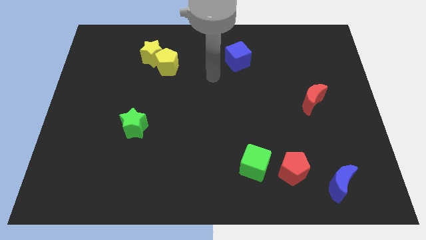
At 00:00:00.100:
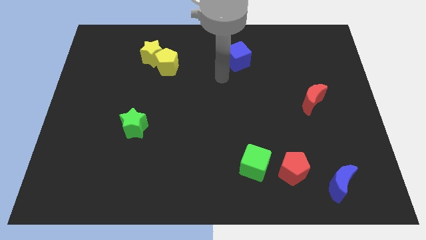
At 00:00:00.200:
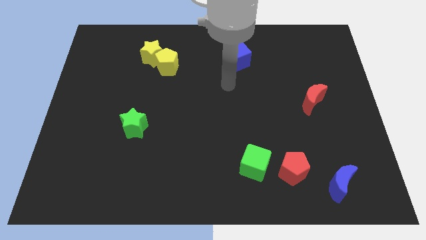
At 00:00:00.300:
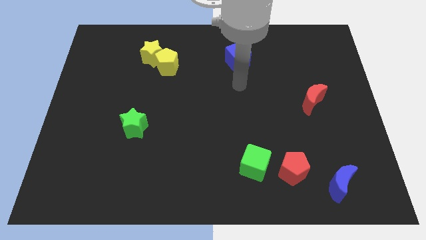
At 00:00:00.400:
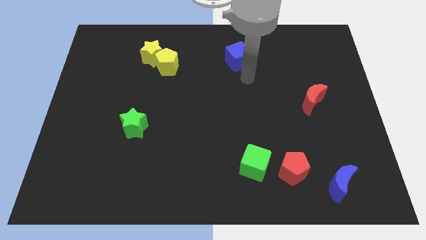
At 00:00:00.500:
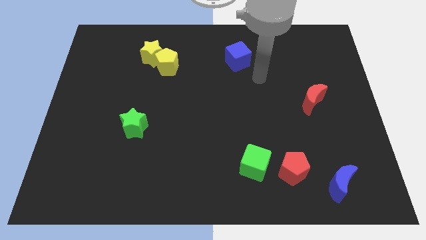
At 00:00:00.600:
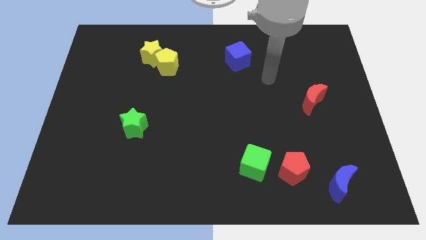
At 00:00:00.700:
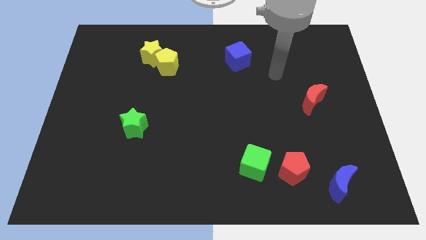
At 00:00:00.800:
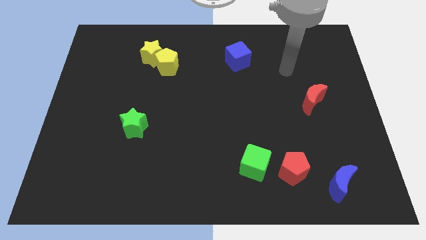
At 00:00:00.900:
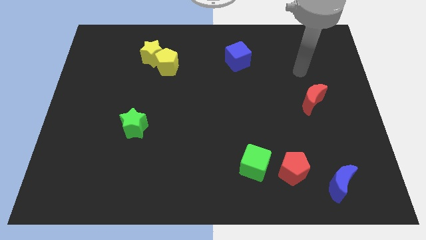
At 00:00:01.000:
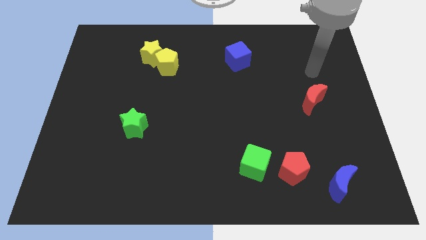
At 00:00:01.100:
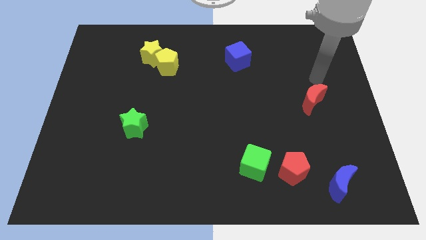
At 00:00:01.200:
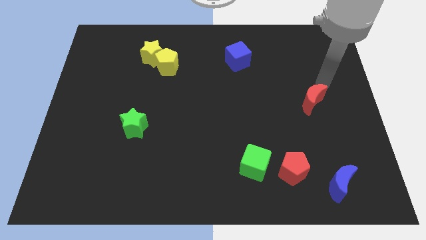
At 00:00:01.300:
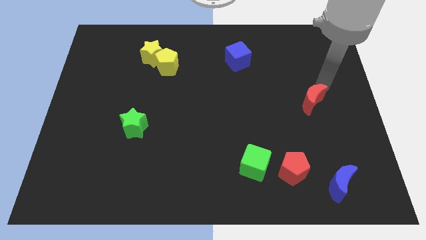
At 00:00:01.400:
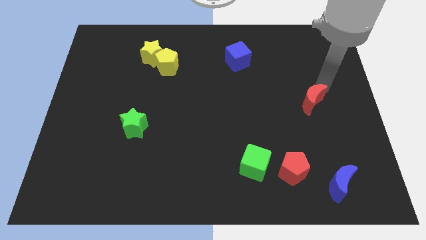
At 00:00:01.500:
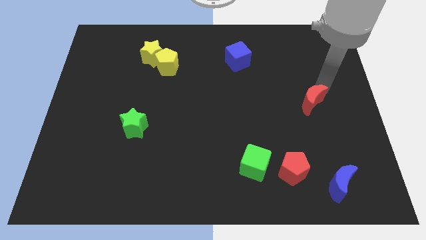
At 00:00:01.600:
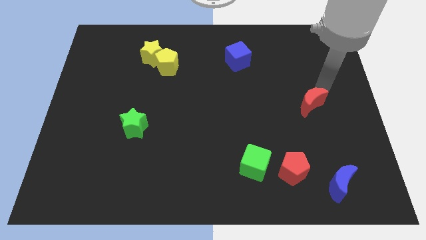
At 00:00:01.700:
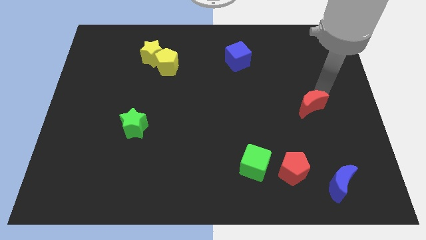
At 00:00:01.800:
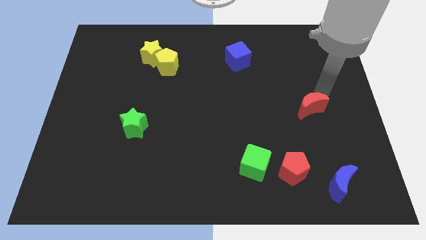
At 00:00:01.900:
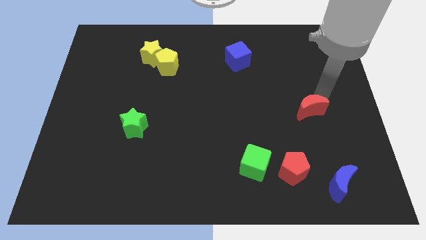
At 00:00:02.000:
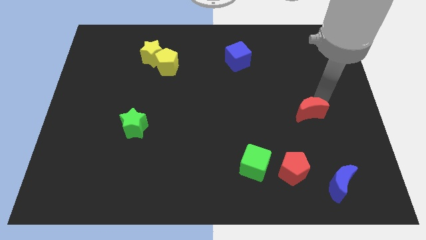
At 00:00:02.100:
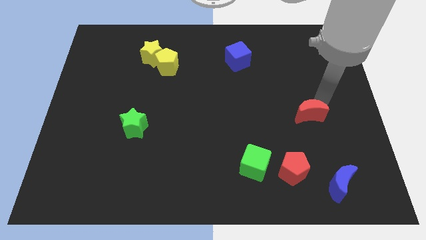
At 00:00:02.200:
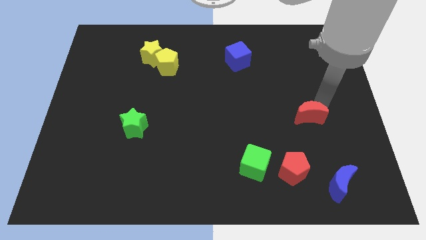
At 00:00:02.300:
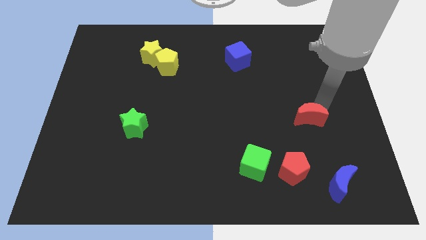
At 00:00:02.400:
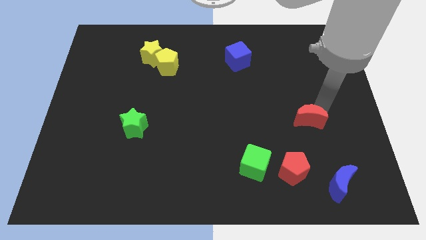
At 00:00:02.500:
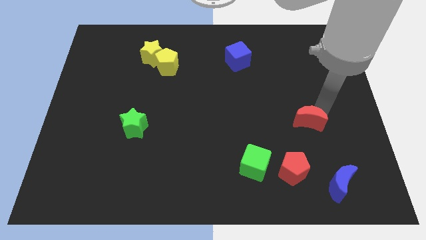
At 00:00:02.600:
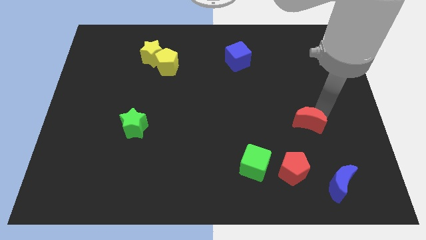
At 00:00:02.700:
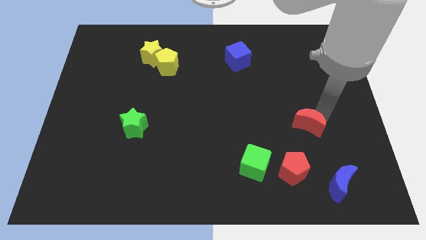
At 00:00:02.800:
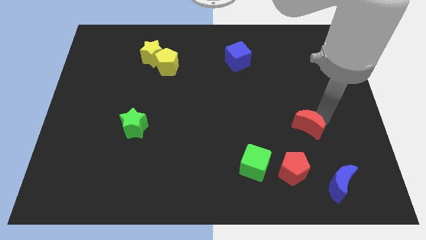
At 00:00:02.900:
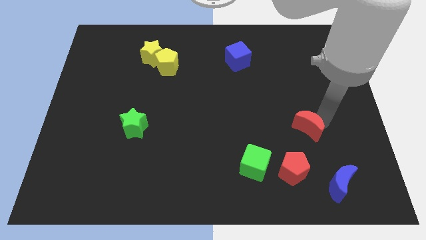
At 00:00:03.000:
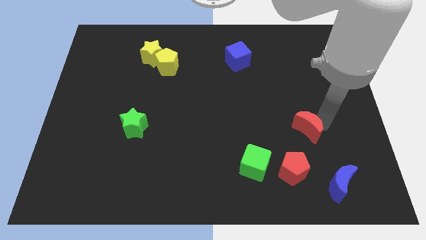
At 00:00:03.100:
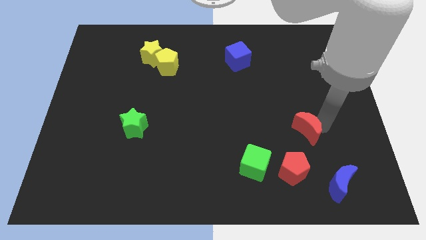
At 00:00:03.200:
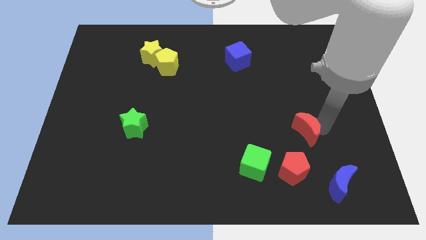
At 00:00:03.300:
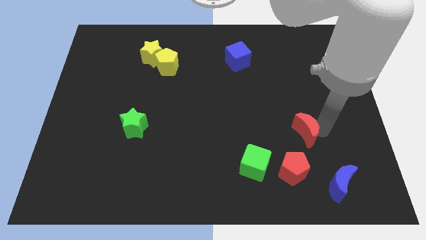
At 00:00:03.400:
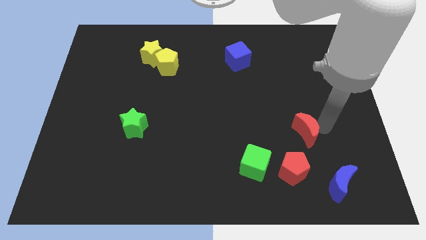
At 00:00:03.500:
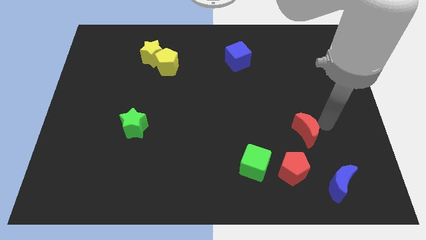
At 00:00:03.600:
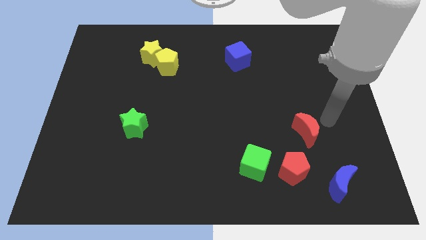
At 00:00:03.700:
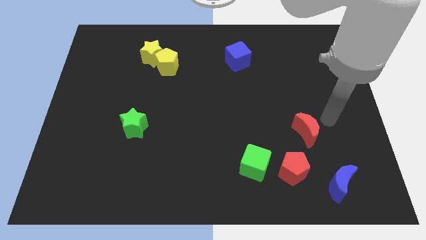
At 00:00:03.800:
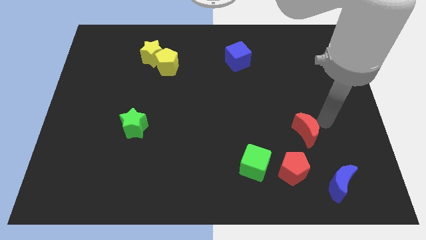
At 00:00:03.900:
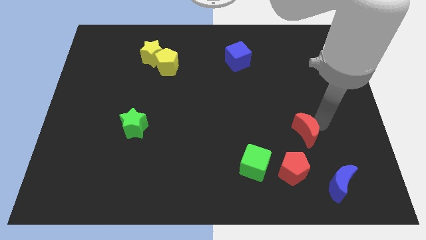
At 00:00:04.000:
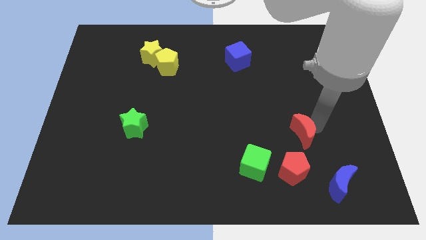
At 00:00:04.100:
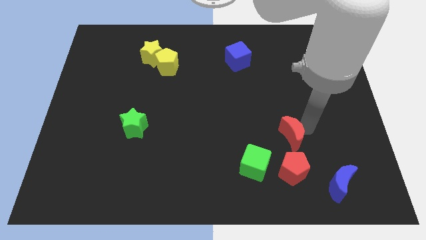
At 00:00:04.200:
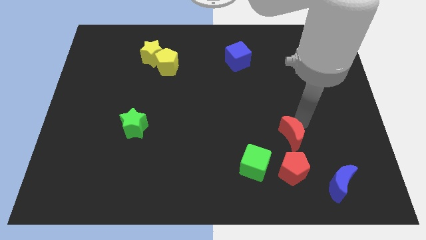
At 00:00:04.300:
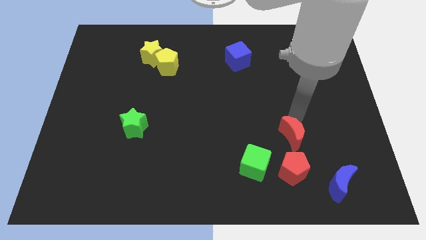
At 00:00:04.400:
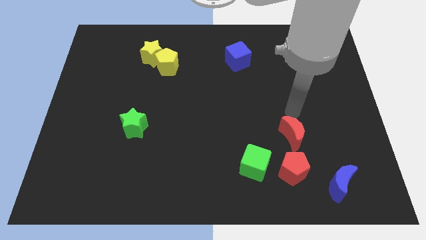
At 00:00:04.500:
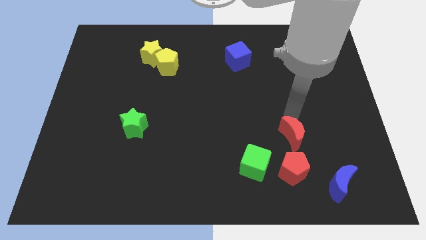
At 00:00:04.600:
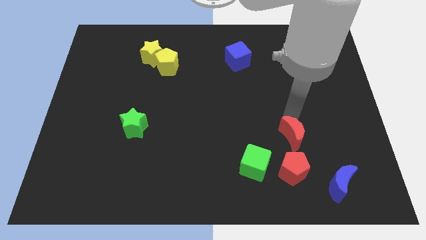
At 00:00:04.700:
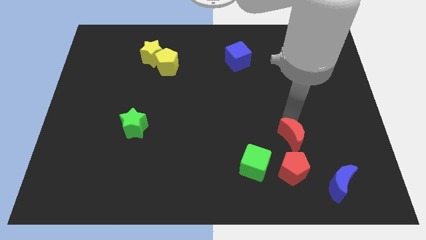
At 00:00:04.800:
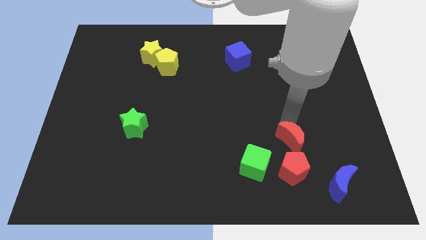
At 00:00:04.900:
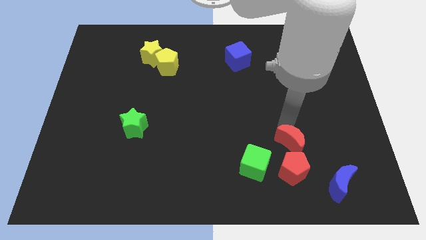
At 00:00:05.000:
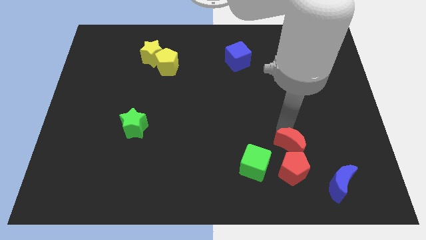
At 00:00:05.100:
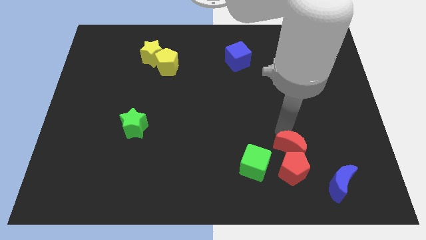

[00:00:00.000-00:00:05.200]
move the red moon towards the red pentagon

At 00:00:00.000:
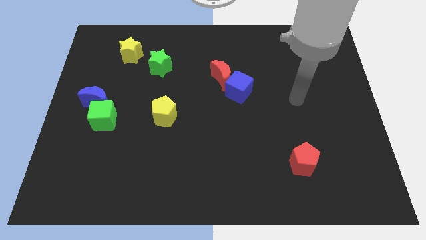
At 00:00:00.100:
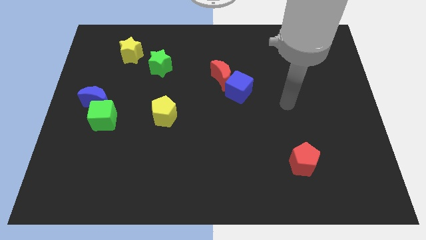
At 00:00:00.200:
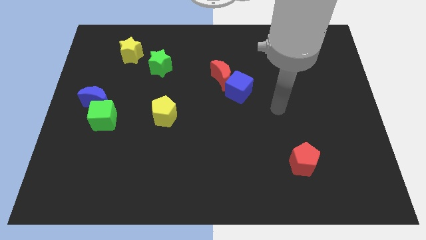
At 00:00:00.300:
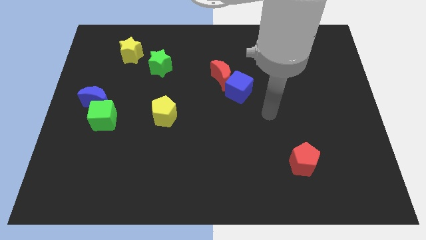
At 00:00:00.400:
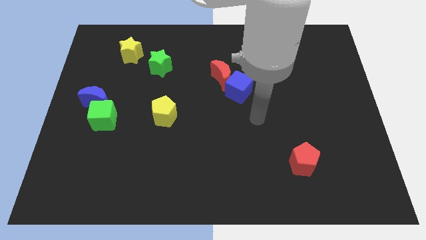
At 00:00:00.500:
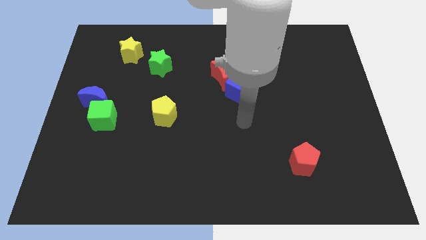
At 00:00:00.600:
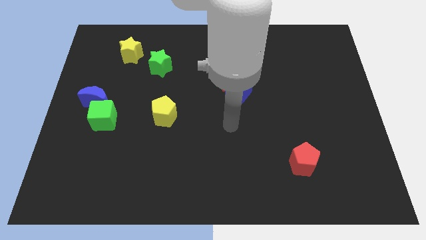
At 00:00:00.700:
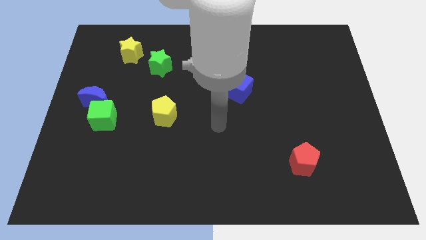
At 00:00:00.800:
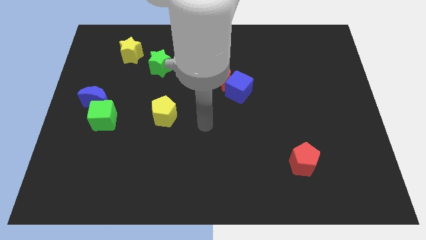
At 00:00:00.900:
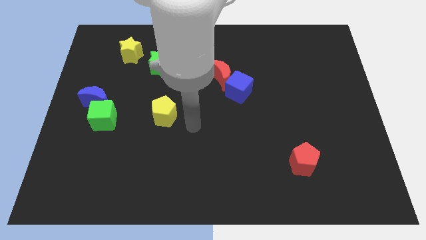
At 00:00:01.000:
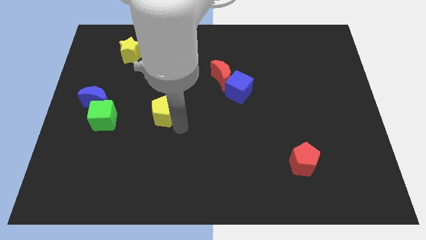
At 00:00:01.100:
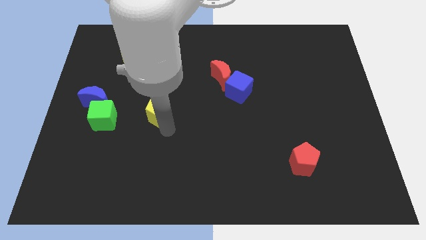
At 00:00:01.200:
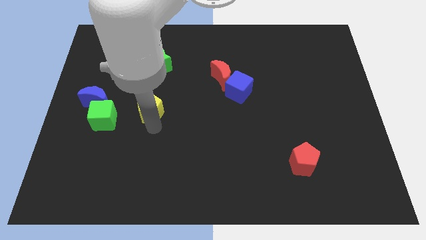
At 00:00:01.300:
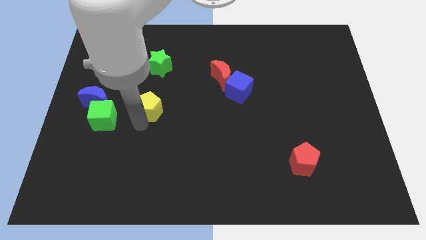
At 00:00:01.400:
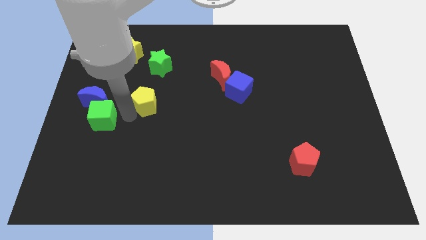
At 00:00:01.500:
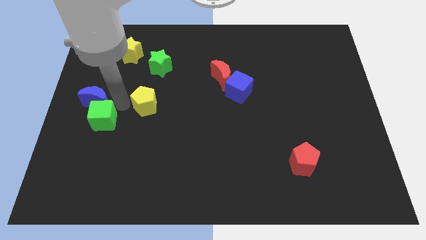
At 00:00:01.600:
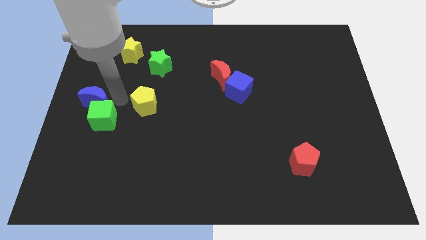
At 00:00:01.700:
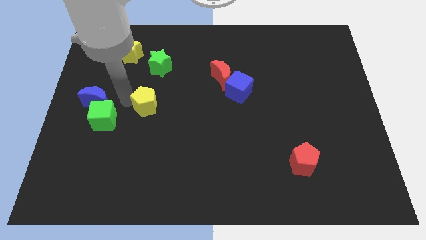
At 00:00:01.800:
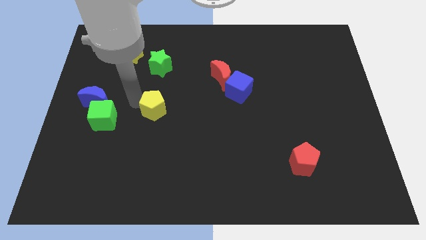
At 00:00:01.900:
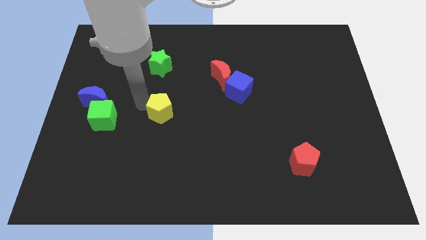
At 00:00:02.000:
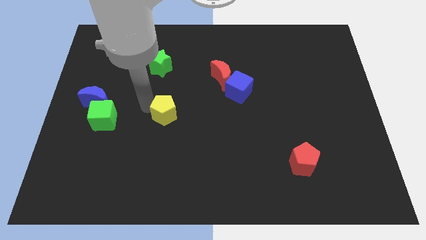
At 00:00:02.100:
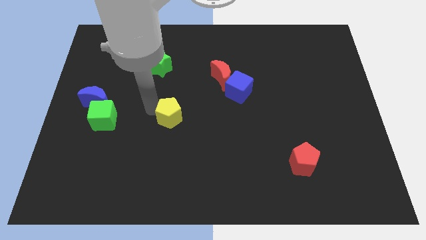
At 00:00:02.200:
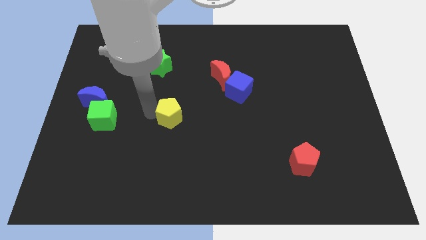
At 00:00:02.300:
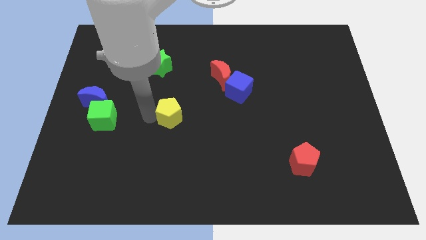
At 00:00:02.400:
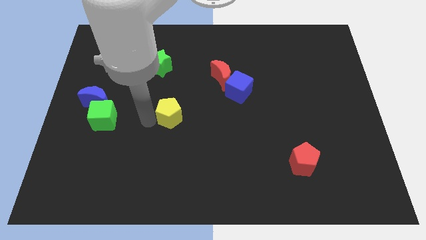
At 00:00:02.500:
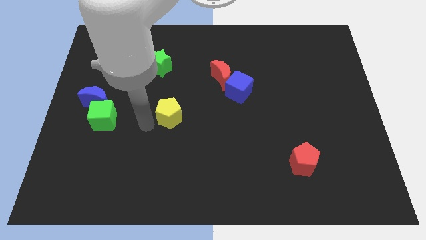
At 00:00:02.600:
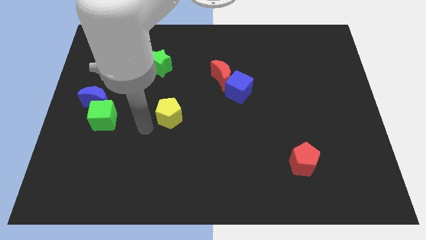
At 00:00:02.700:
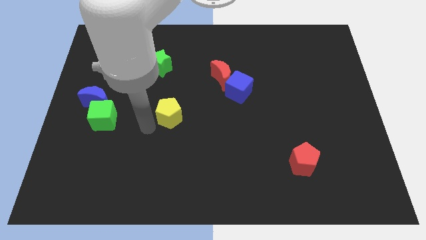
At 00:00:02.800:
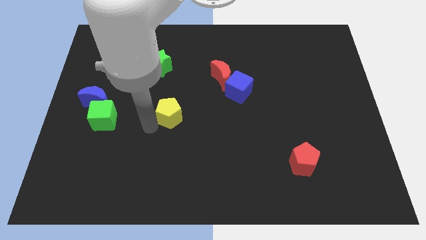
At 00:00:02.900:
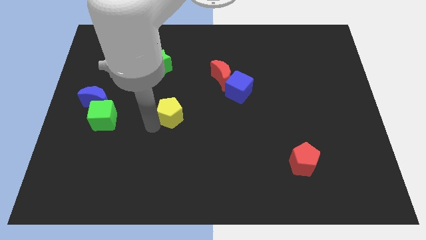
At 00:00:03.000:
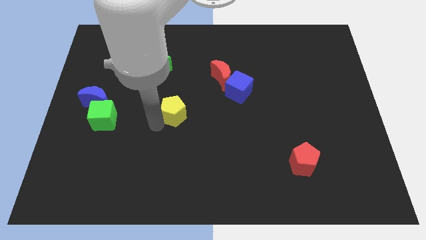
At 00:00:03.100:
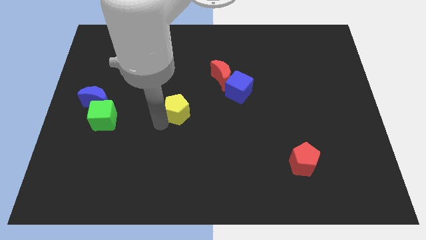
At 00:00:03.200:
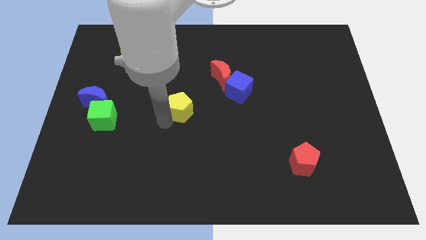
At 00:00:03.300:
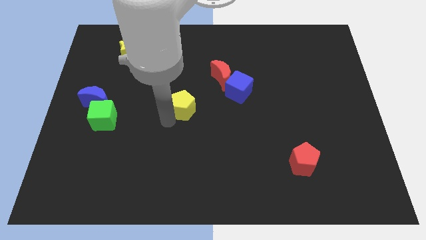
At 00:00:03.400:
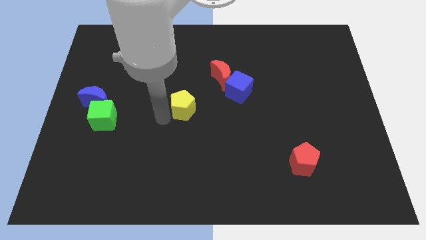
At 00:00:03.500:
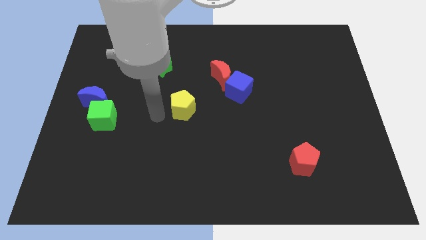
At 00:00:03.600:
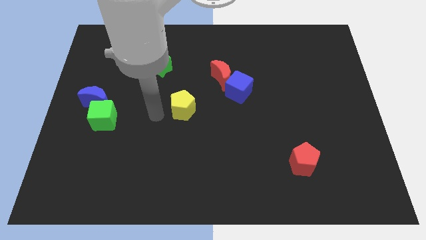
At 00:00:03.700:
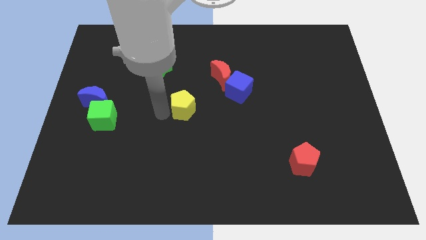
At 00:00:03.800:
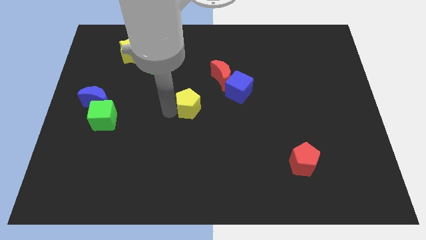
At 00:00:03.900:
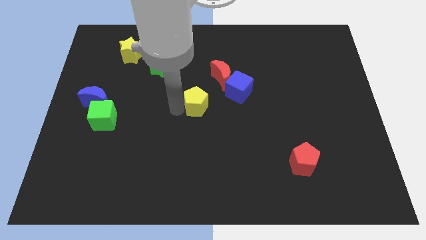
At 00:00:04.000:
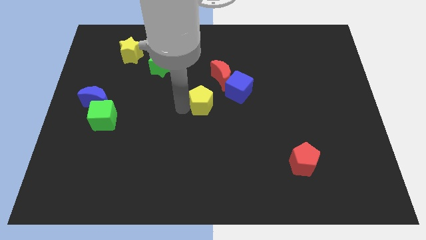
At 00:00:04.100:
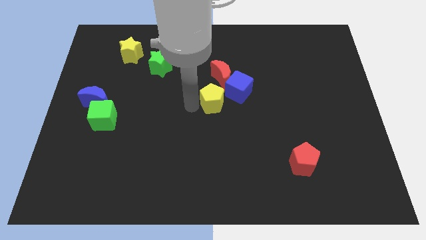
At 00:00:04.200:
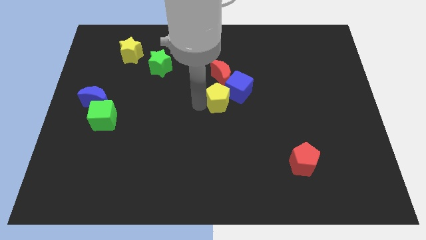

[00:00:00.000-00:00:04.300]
push the yellow pentagon towards the blue cube
